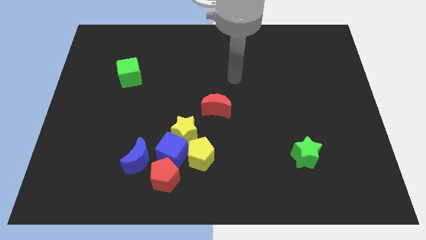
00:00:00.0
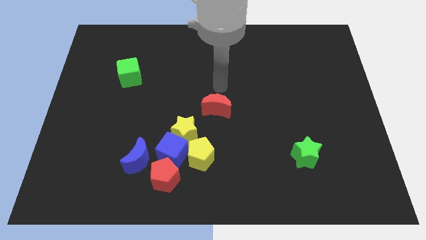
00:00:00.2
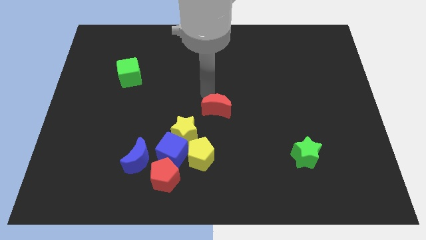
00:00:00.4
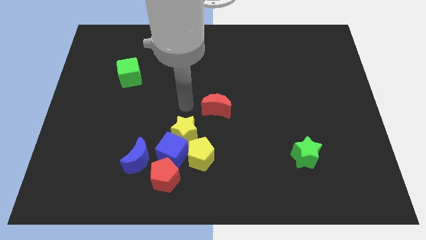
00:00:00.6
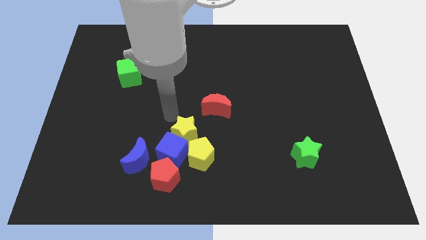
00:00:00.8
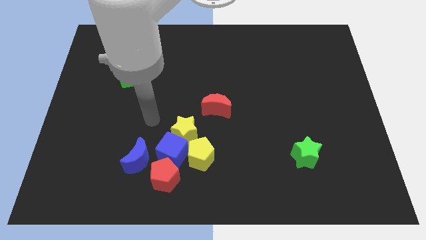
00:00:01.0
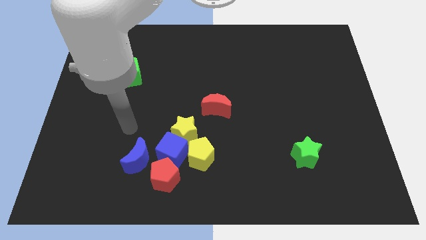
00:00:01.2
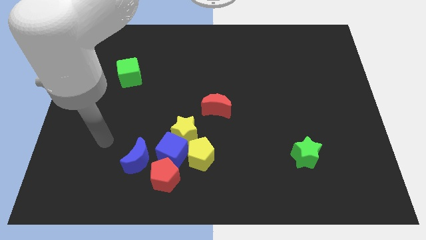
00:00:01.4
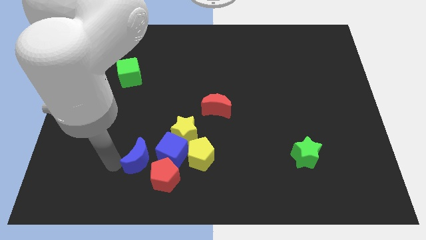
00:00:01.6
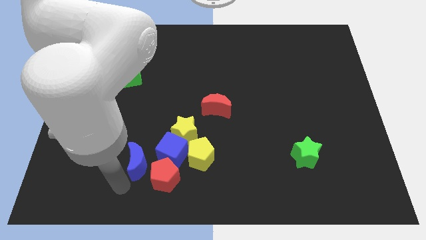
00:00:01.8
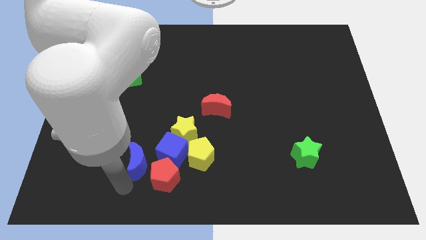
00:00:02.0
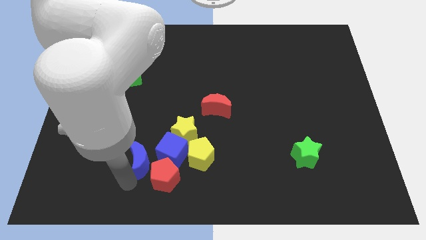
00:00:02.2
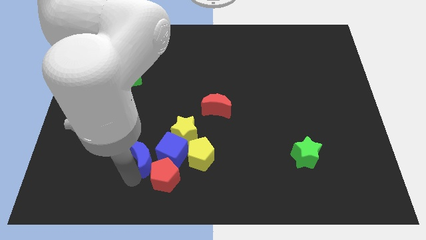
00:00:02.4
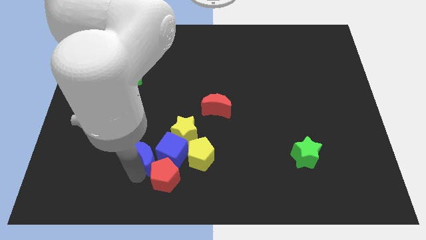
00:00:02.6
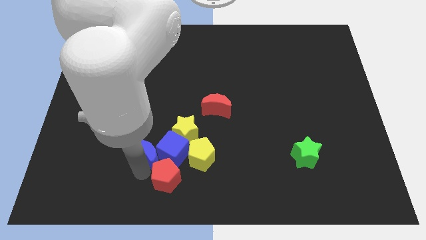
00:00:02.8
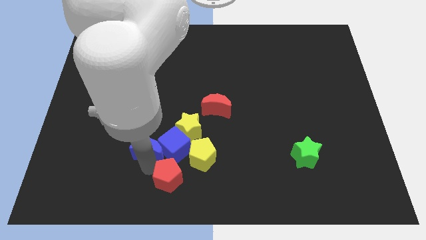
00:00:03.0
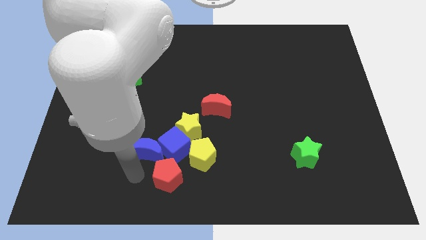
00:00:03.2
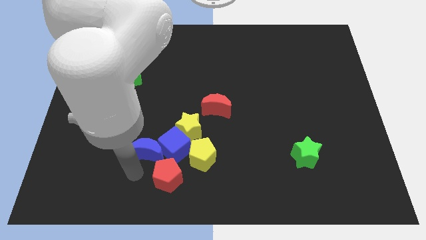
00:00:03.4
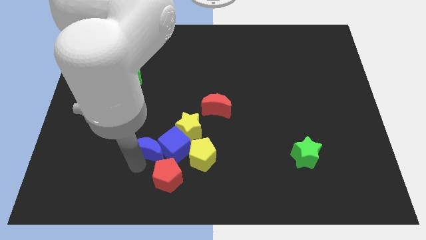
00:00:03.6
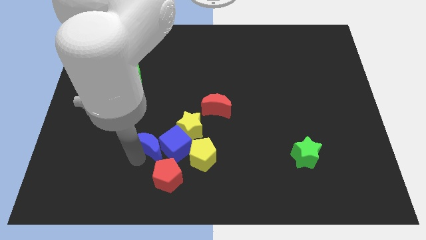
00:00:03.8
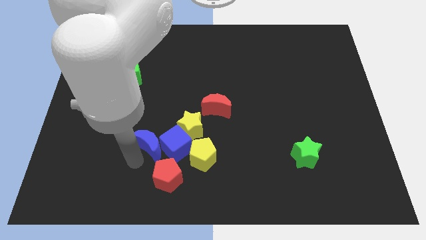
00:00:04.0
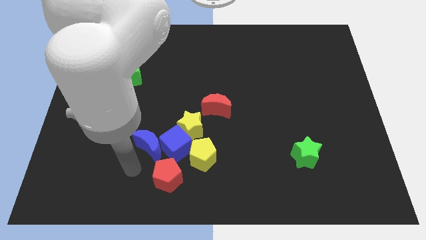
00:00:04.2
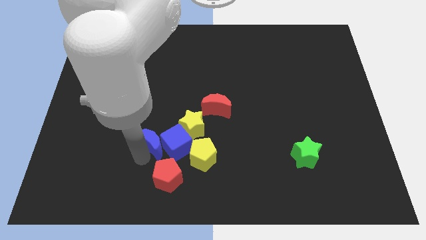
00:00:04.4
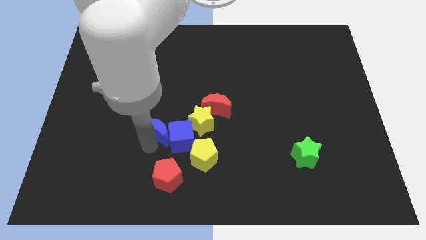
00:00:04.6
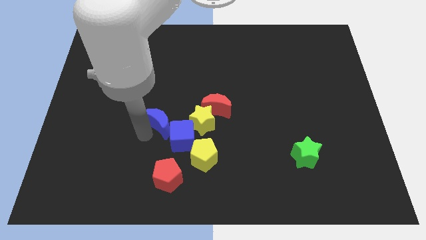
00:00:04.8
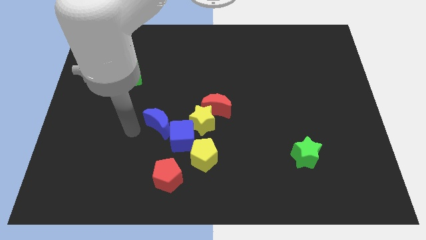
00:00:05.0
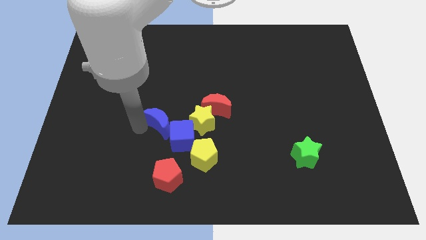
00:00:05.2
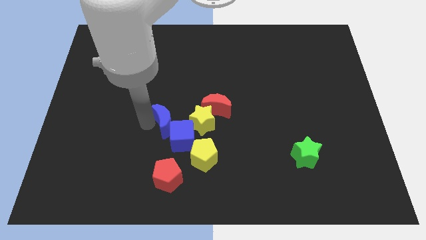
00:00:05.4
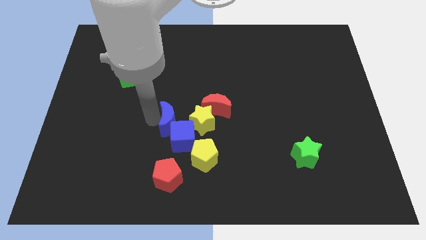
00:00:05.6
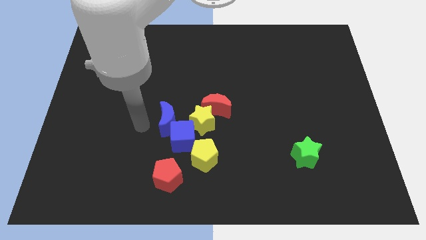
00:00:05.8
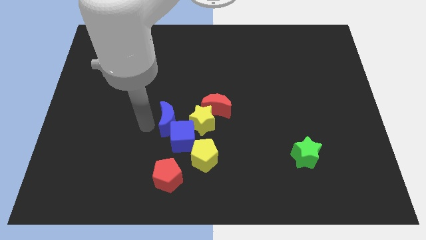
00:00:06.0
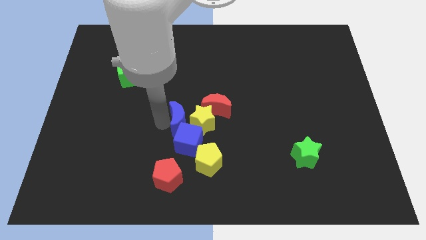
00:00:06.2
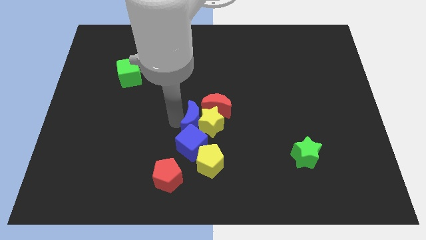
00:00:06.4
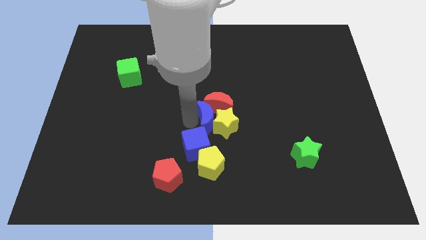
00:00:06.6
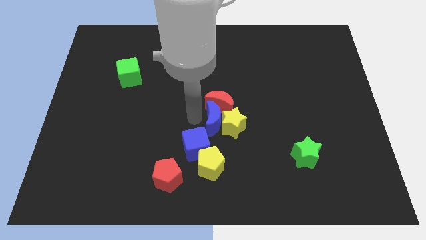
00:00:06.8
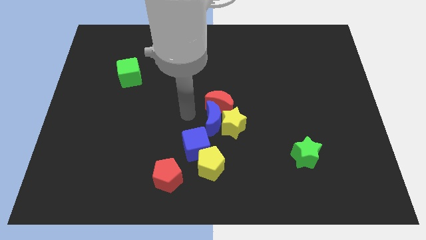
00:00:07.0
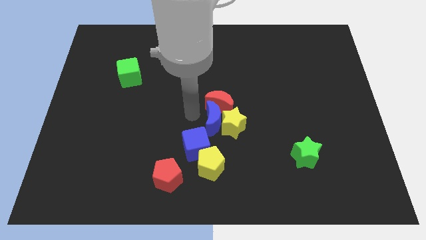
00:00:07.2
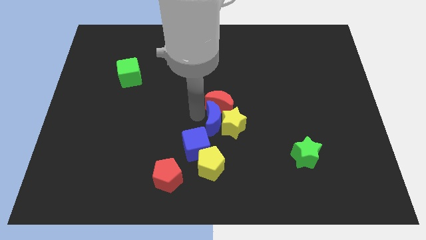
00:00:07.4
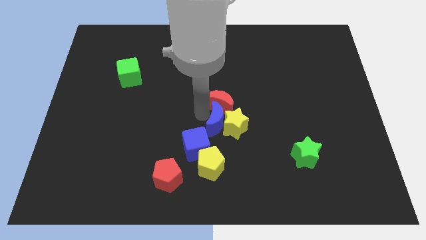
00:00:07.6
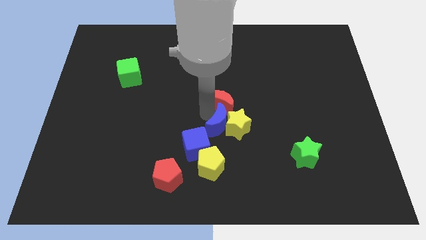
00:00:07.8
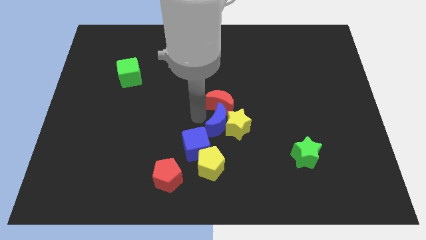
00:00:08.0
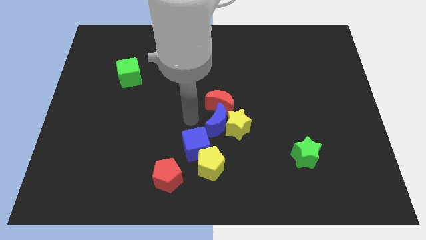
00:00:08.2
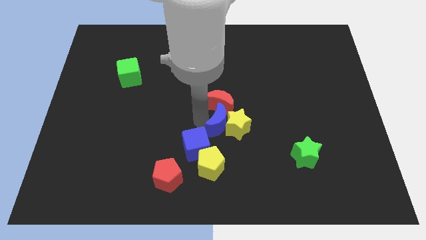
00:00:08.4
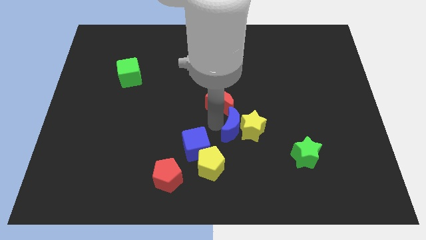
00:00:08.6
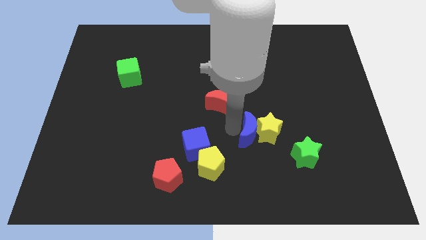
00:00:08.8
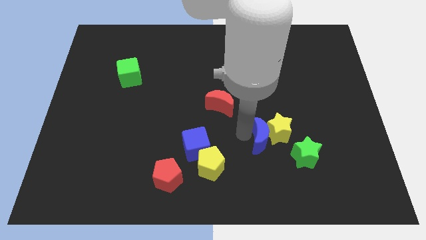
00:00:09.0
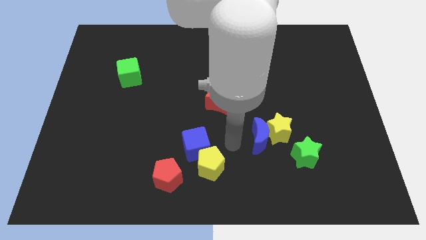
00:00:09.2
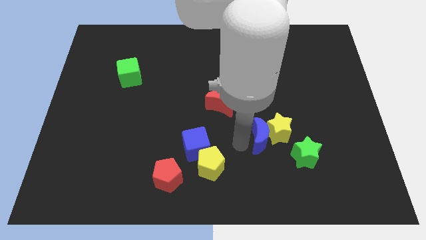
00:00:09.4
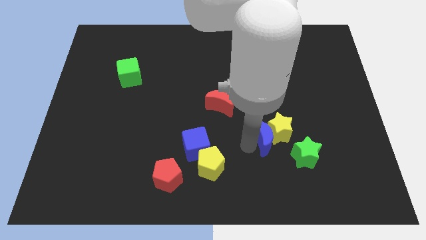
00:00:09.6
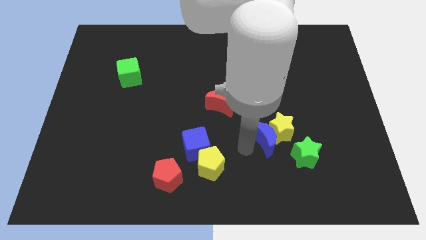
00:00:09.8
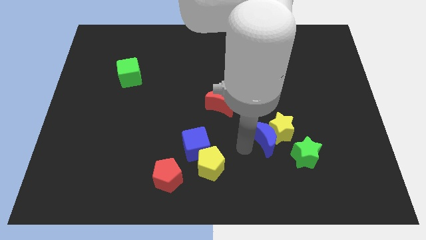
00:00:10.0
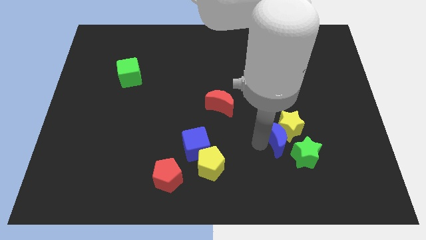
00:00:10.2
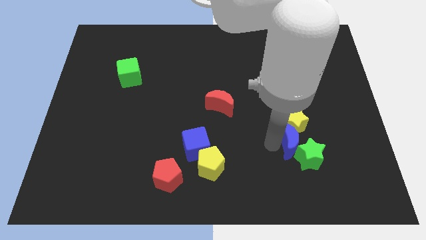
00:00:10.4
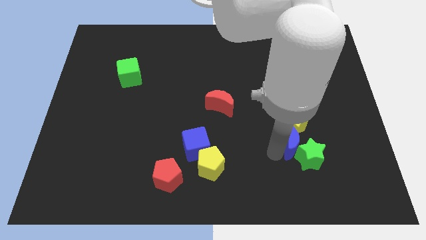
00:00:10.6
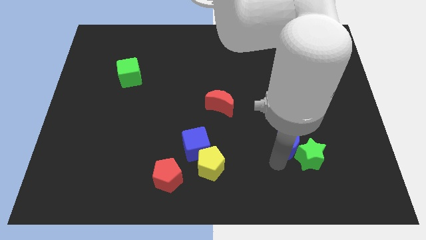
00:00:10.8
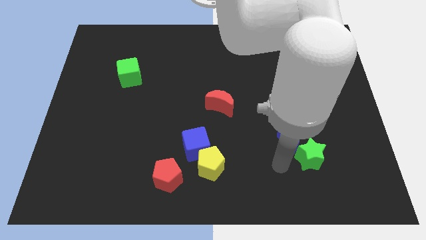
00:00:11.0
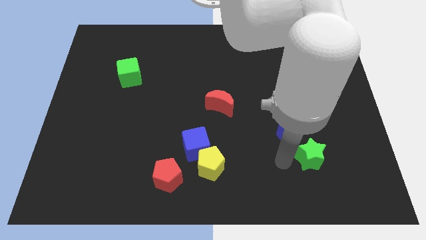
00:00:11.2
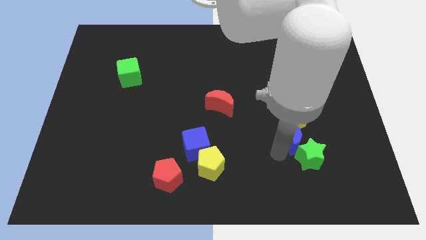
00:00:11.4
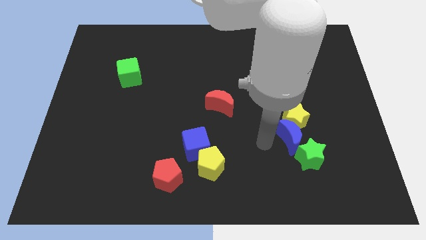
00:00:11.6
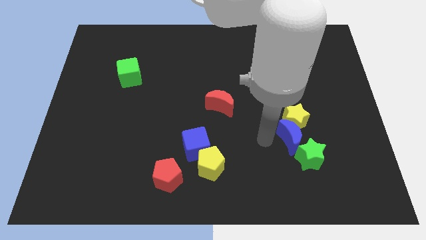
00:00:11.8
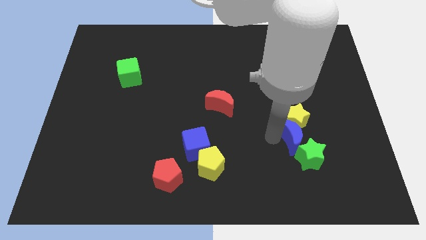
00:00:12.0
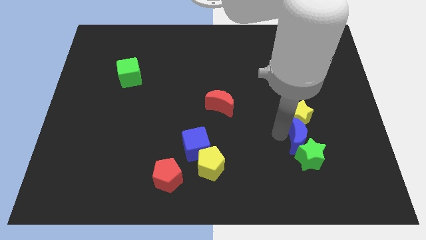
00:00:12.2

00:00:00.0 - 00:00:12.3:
move the blue moon diagonally up and to the right of the green star

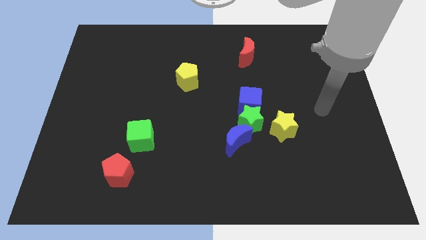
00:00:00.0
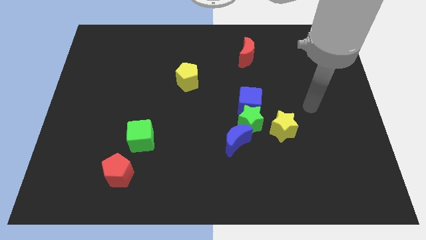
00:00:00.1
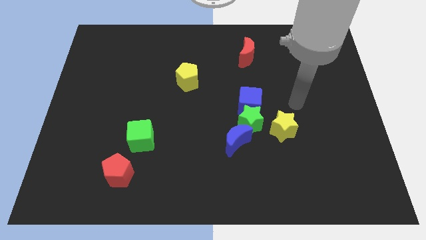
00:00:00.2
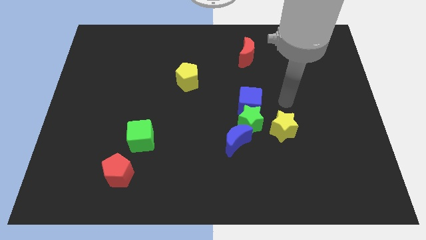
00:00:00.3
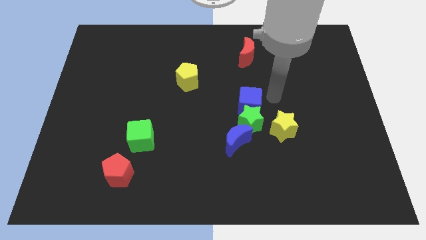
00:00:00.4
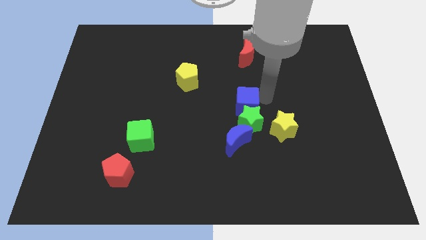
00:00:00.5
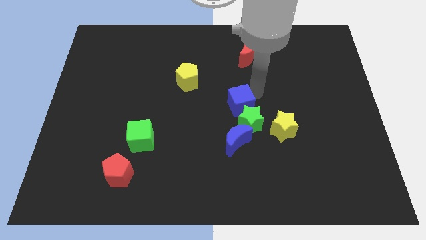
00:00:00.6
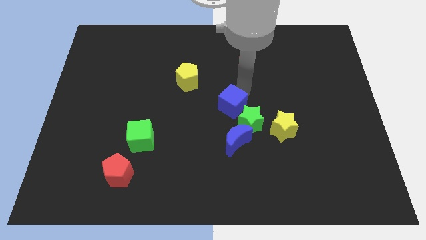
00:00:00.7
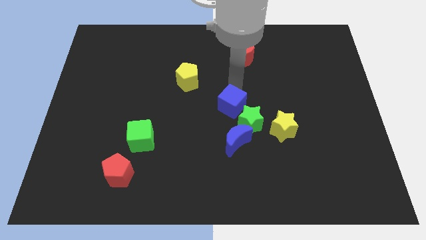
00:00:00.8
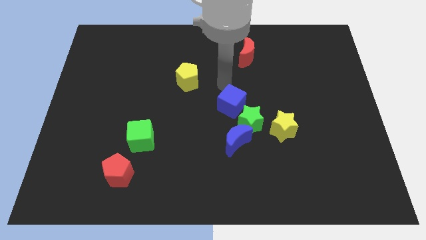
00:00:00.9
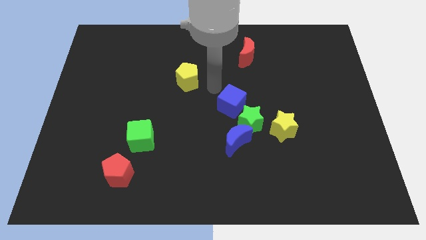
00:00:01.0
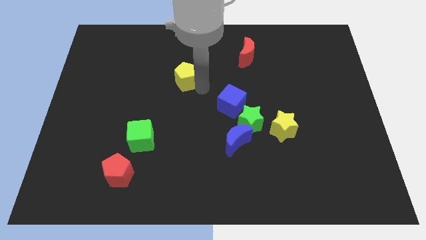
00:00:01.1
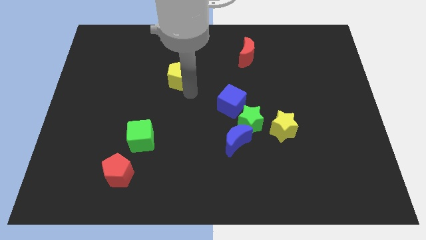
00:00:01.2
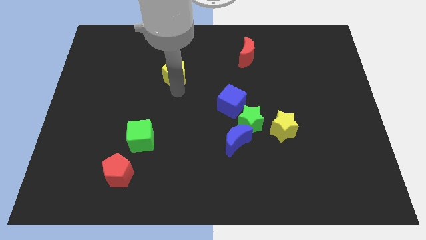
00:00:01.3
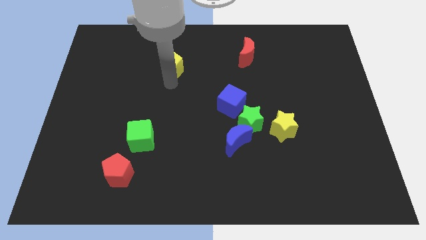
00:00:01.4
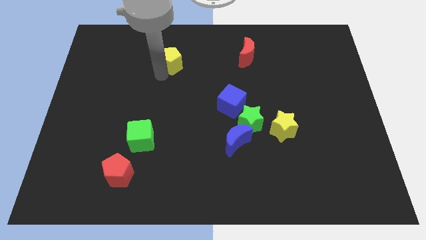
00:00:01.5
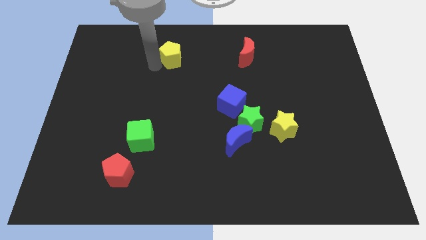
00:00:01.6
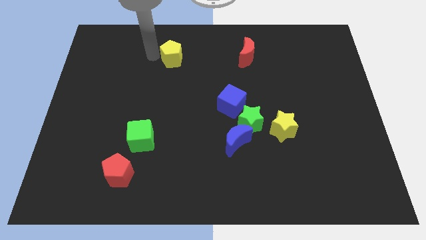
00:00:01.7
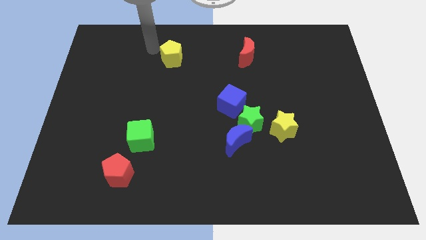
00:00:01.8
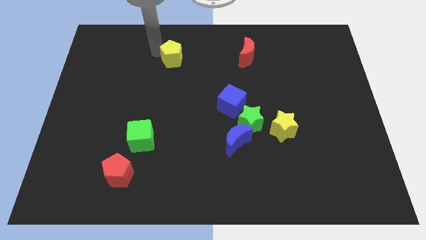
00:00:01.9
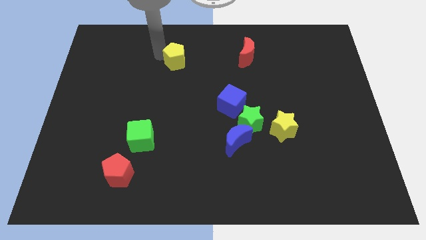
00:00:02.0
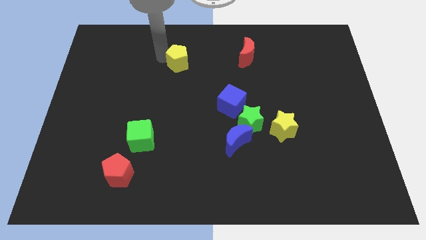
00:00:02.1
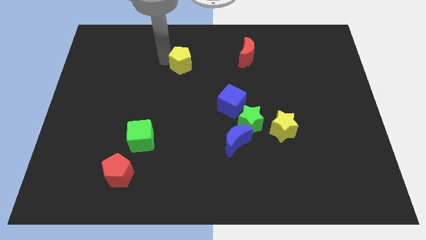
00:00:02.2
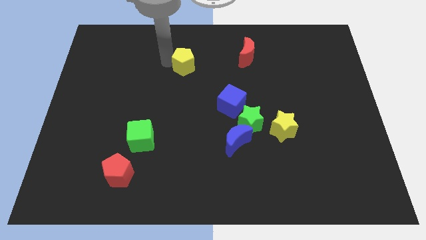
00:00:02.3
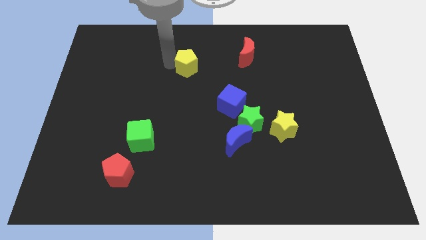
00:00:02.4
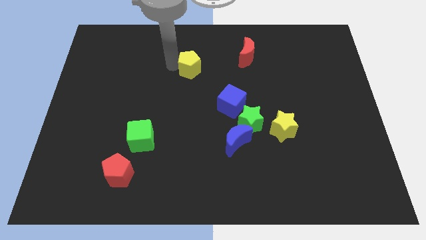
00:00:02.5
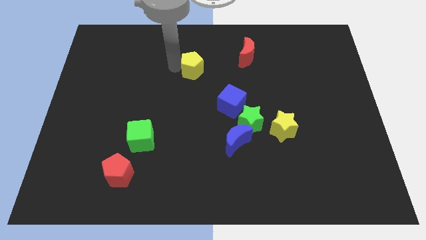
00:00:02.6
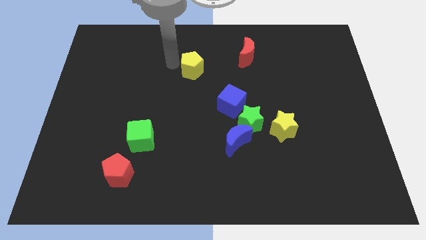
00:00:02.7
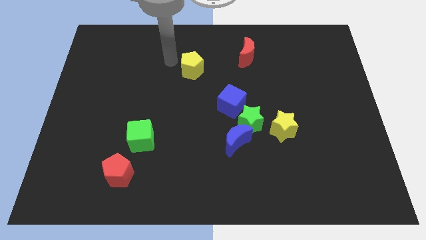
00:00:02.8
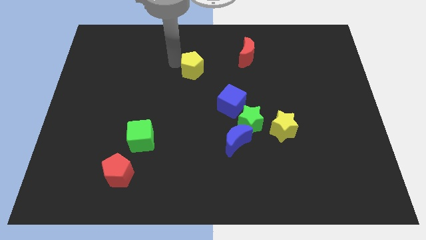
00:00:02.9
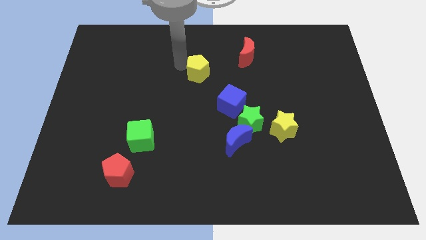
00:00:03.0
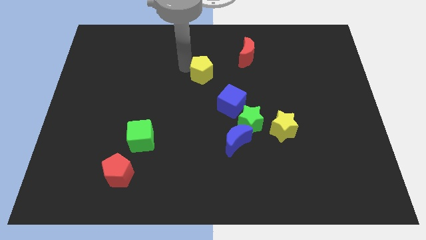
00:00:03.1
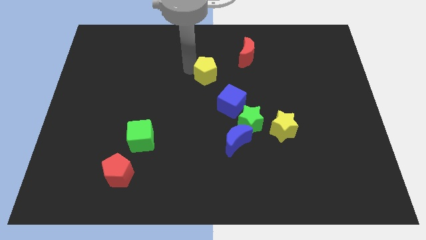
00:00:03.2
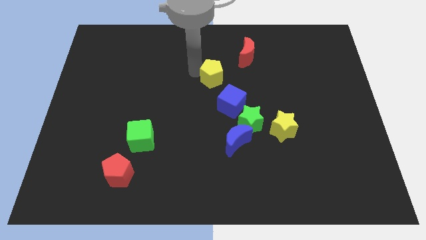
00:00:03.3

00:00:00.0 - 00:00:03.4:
put the yellow pentagon above the blue cube
